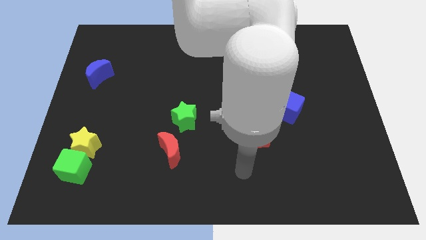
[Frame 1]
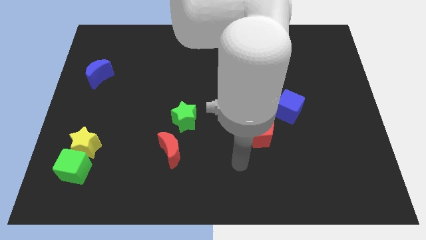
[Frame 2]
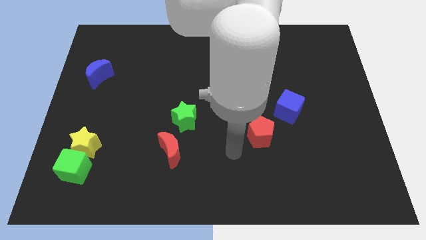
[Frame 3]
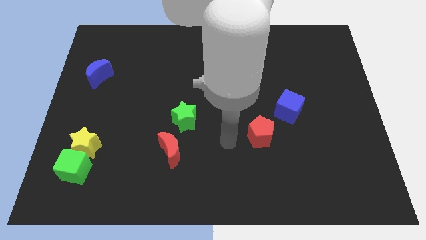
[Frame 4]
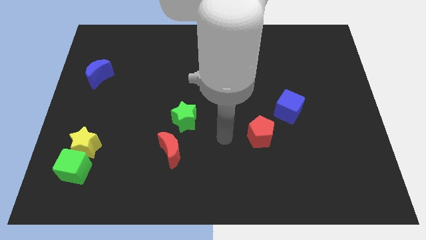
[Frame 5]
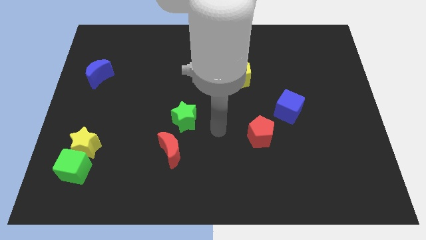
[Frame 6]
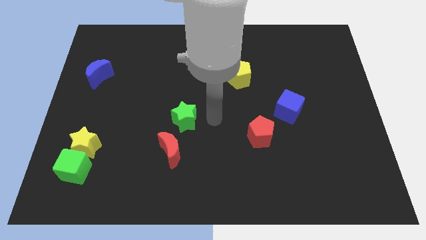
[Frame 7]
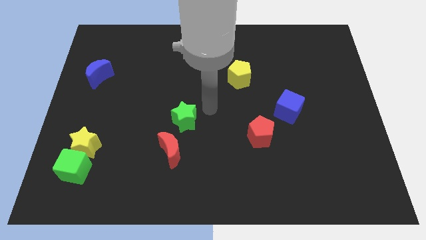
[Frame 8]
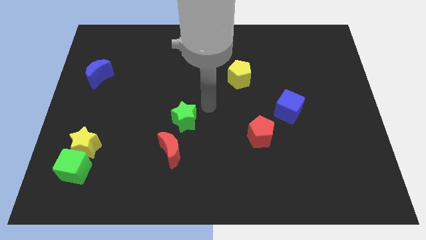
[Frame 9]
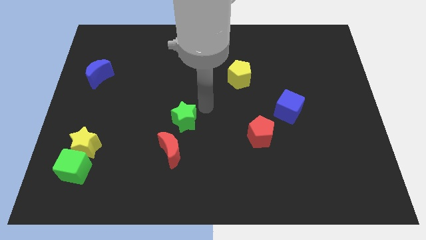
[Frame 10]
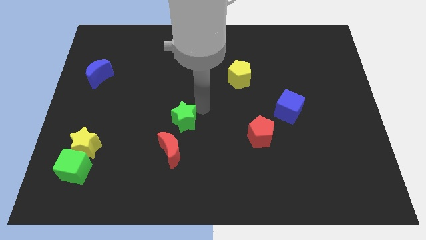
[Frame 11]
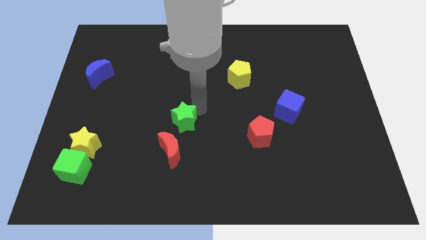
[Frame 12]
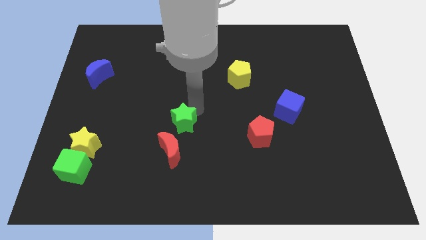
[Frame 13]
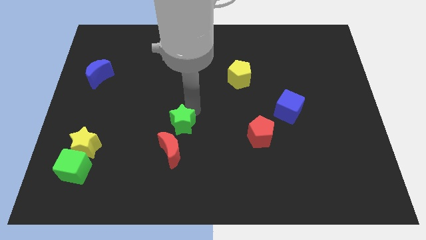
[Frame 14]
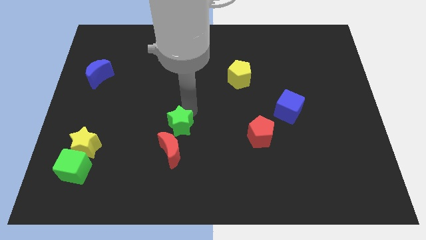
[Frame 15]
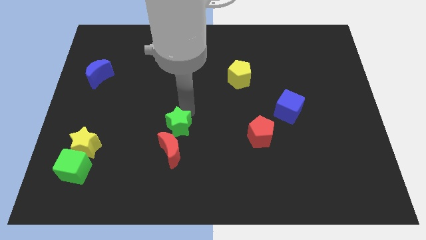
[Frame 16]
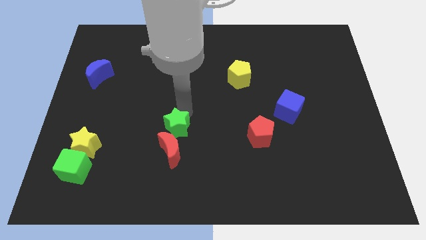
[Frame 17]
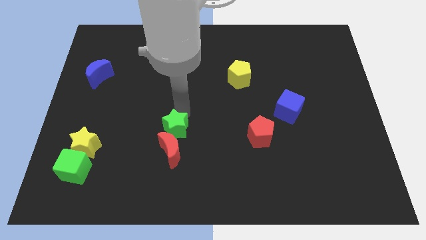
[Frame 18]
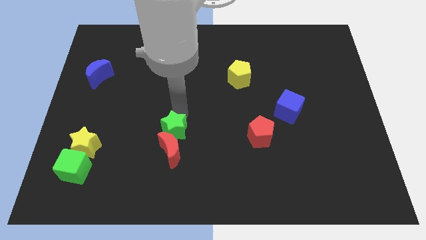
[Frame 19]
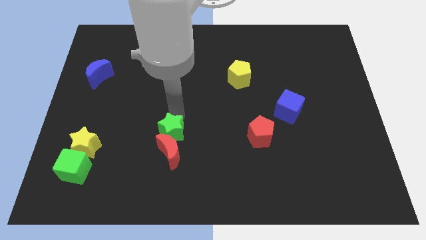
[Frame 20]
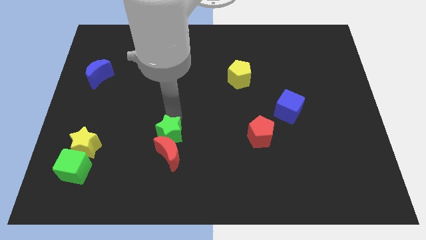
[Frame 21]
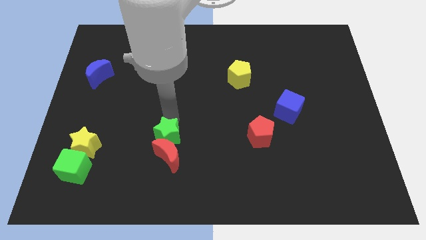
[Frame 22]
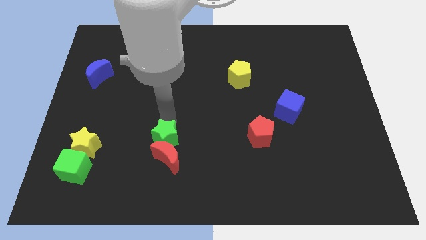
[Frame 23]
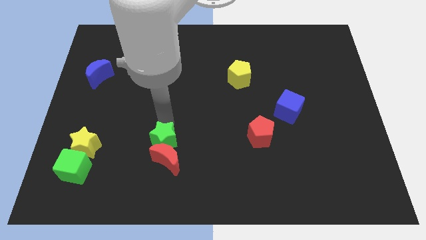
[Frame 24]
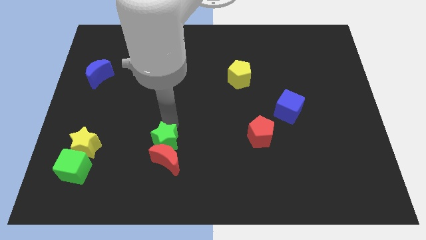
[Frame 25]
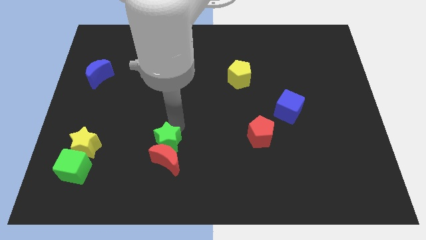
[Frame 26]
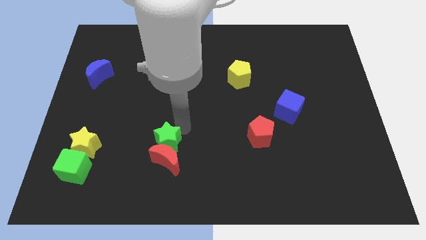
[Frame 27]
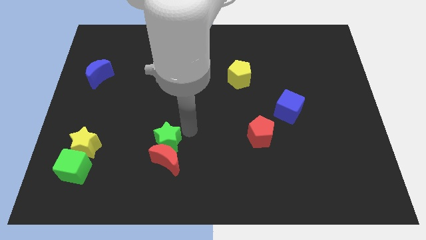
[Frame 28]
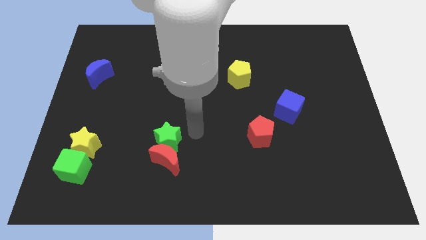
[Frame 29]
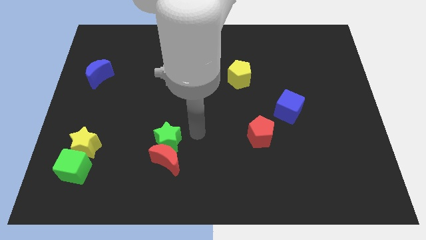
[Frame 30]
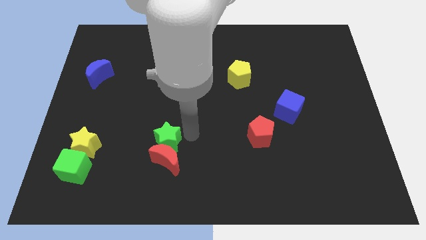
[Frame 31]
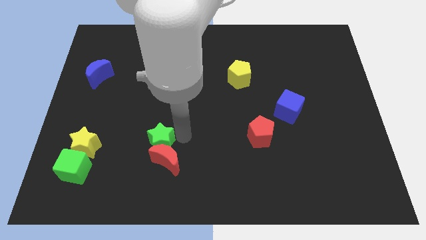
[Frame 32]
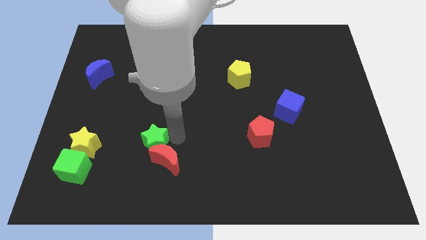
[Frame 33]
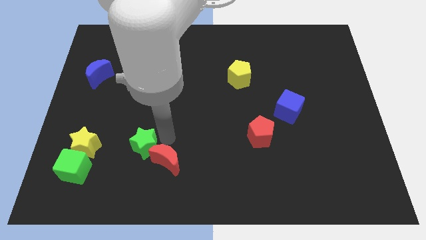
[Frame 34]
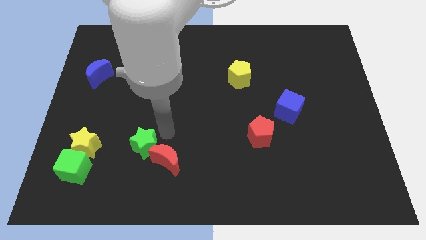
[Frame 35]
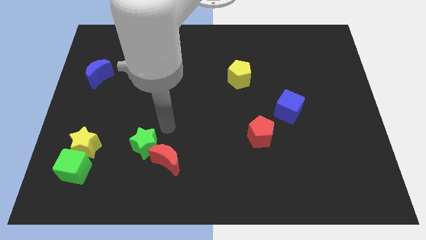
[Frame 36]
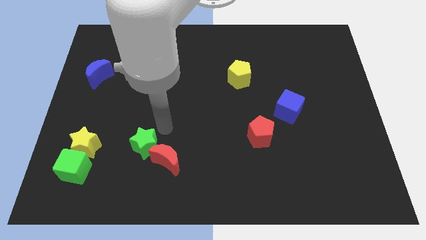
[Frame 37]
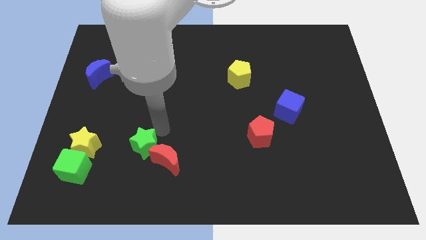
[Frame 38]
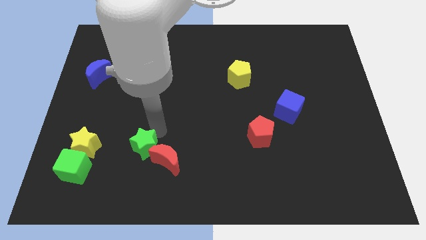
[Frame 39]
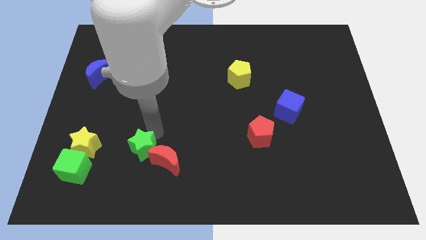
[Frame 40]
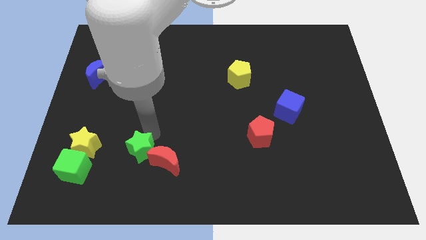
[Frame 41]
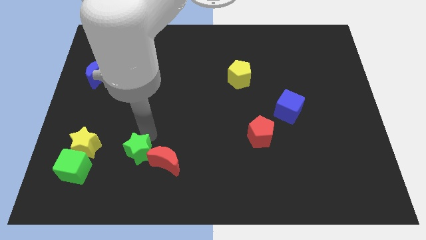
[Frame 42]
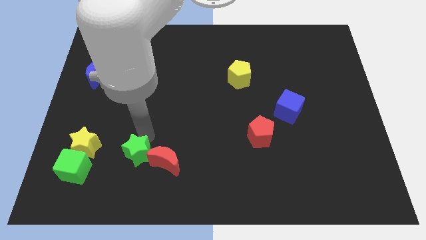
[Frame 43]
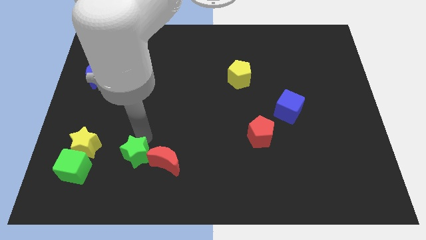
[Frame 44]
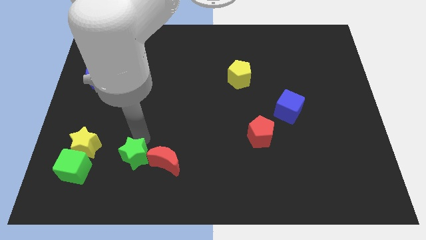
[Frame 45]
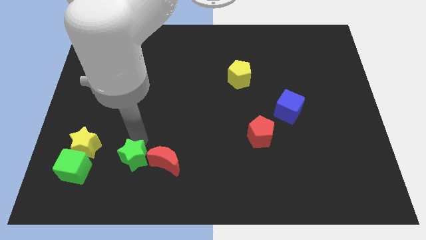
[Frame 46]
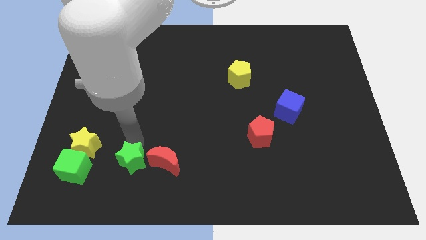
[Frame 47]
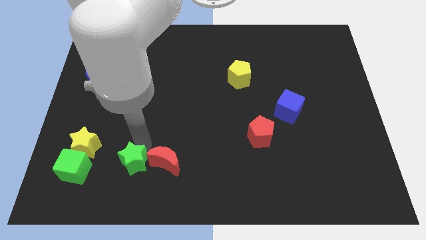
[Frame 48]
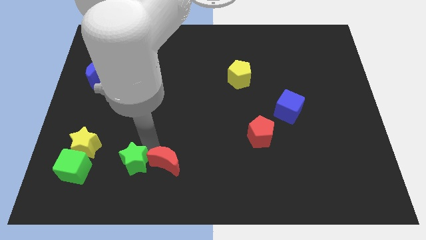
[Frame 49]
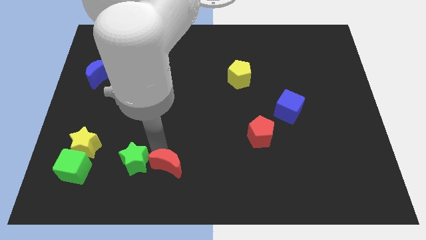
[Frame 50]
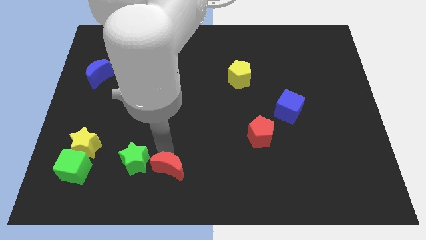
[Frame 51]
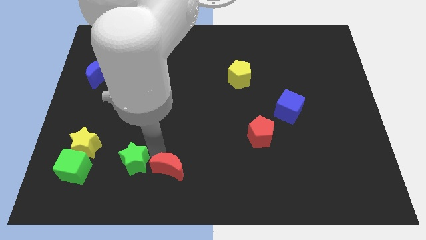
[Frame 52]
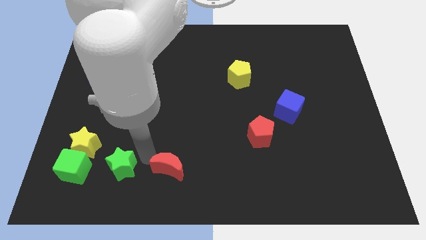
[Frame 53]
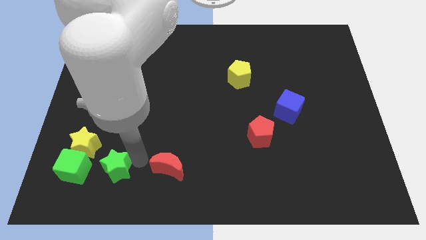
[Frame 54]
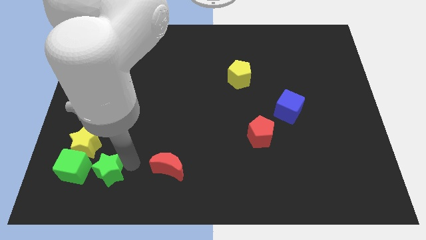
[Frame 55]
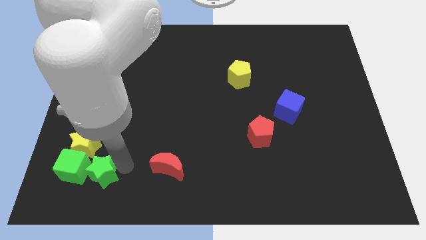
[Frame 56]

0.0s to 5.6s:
put the green star next to the green cube

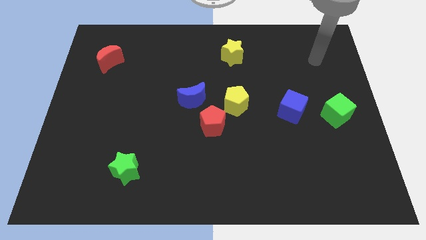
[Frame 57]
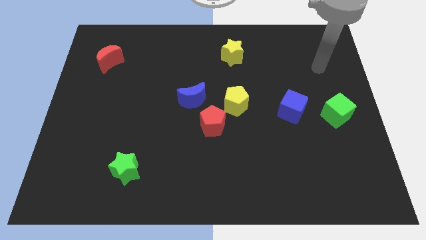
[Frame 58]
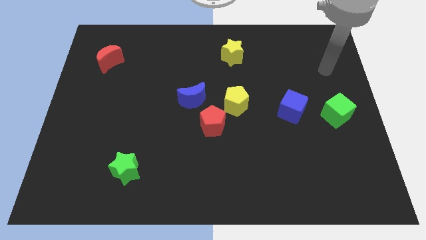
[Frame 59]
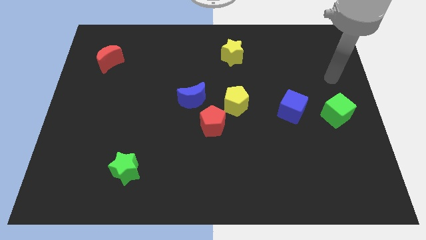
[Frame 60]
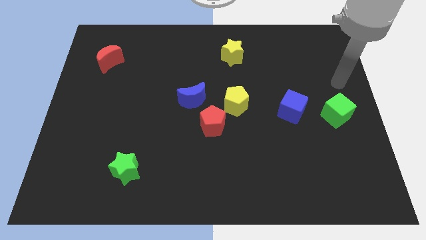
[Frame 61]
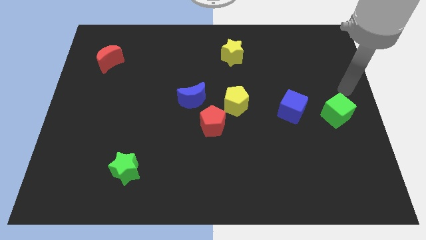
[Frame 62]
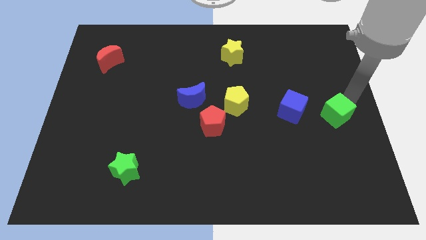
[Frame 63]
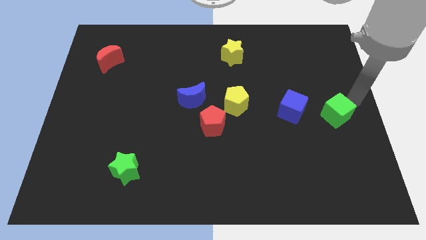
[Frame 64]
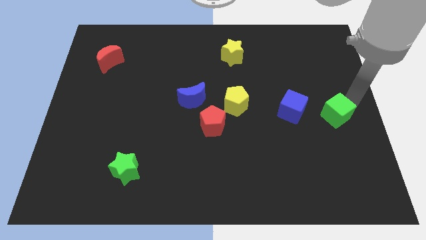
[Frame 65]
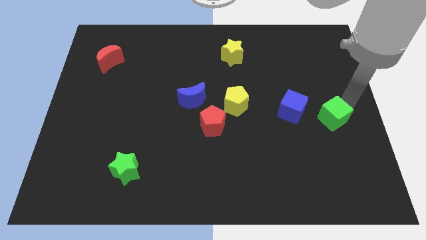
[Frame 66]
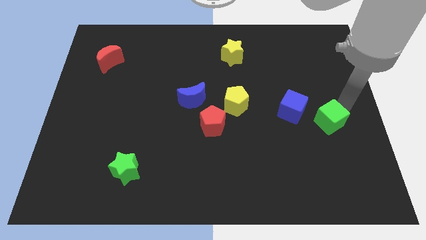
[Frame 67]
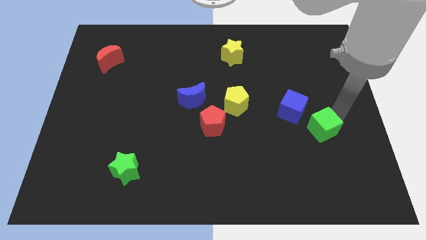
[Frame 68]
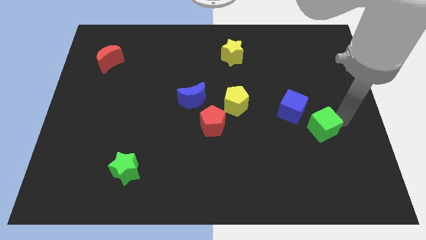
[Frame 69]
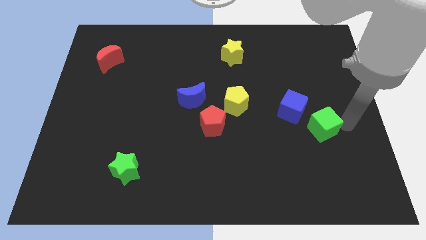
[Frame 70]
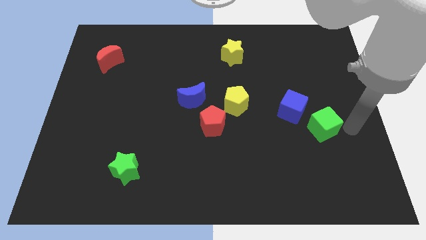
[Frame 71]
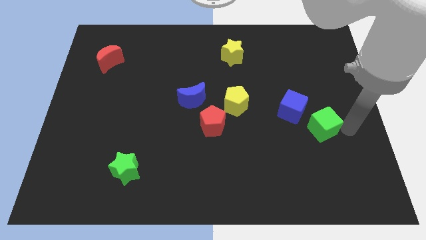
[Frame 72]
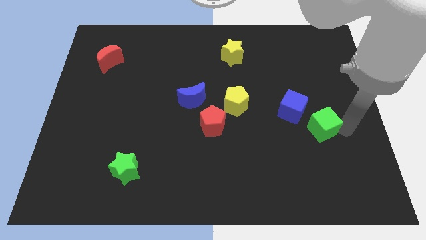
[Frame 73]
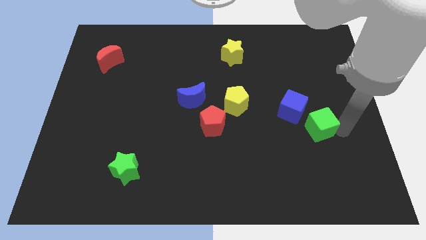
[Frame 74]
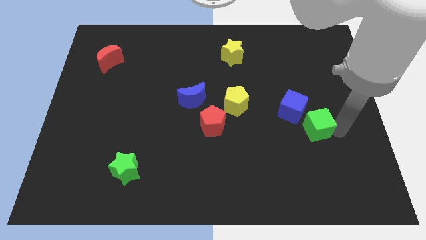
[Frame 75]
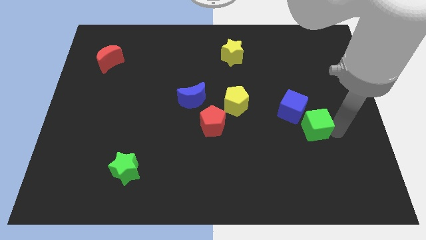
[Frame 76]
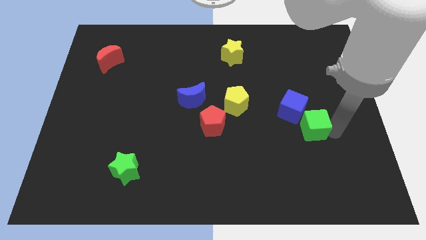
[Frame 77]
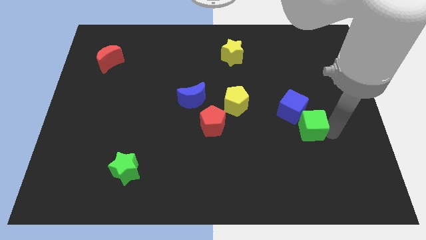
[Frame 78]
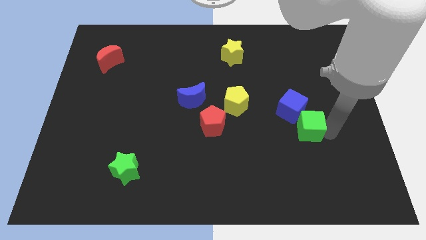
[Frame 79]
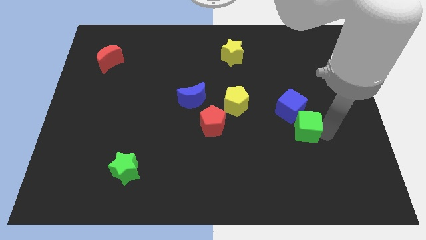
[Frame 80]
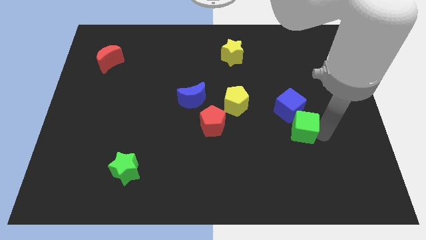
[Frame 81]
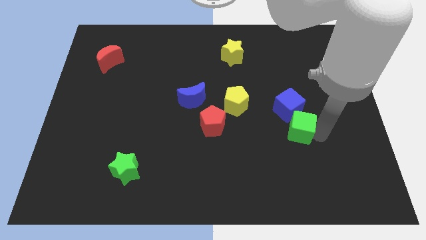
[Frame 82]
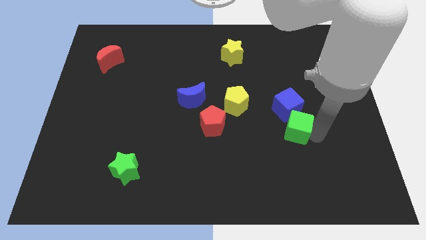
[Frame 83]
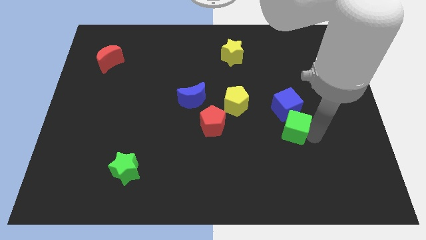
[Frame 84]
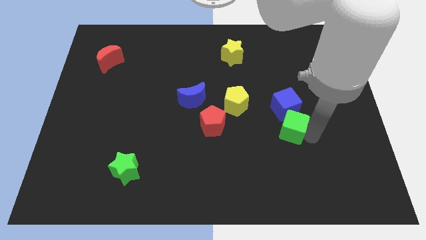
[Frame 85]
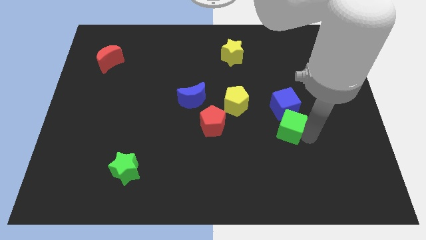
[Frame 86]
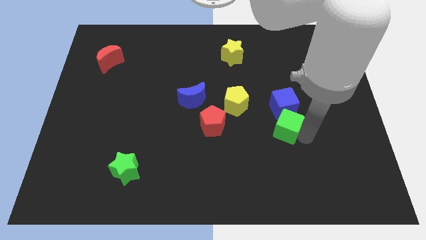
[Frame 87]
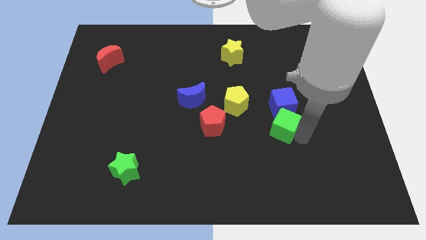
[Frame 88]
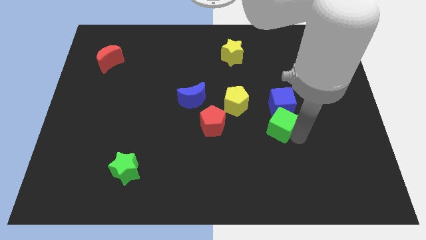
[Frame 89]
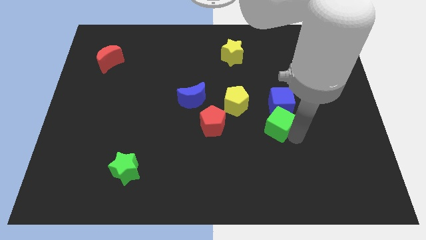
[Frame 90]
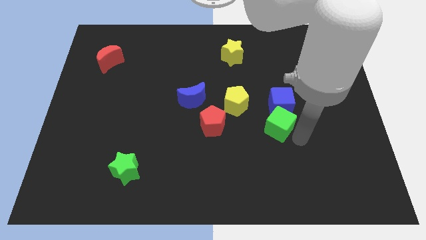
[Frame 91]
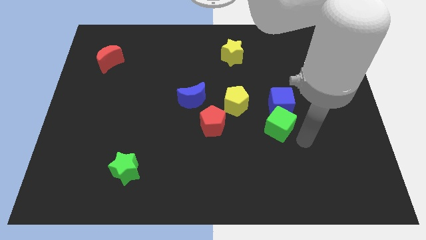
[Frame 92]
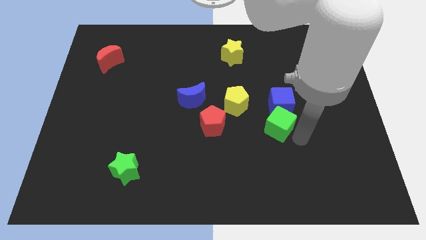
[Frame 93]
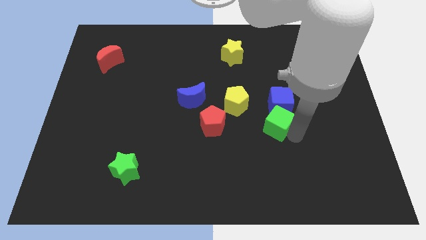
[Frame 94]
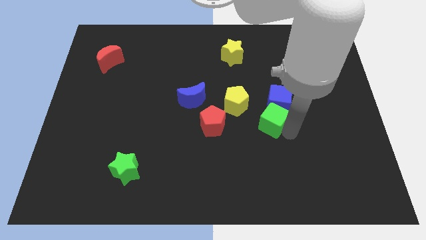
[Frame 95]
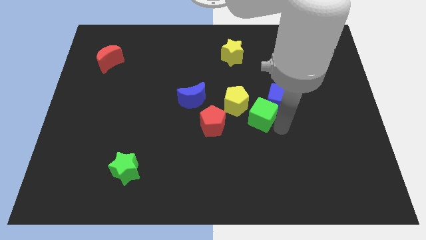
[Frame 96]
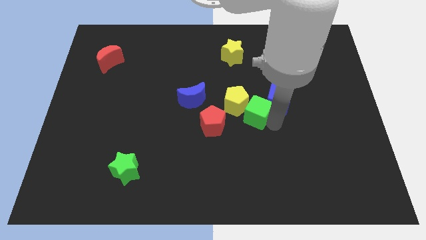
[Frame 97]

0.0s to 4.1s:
slide the green cube towards the yellow pentagon
